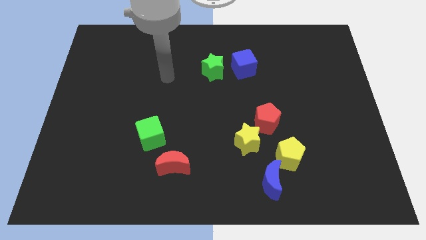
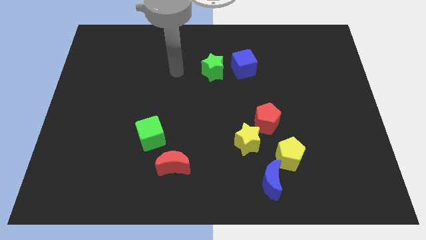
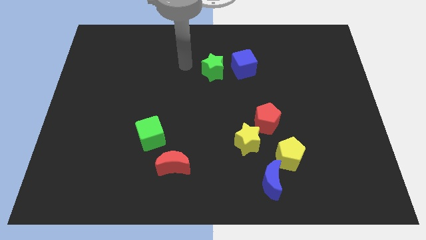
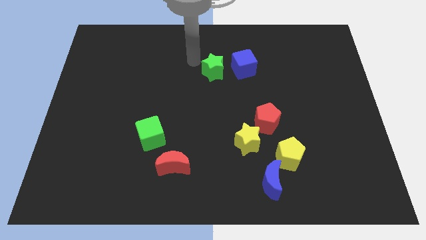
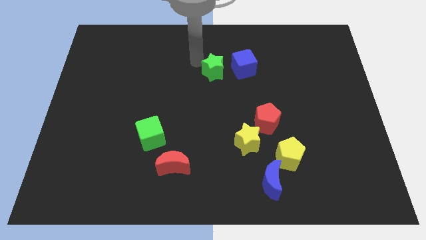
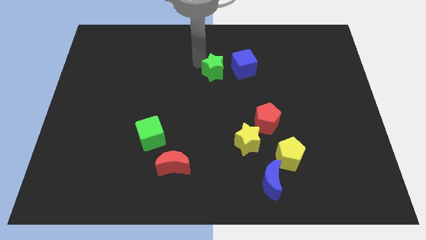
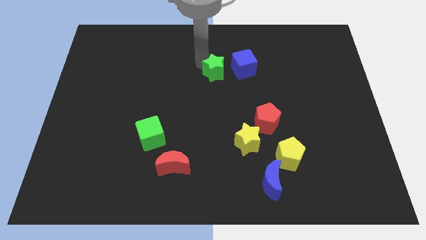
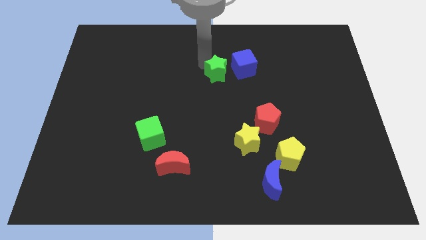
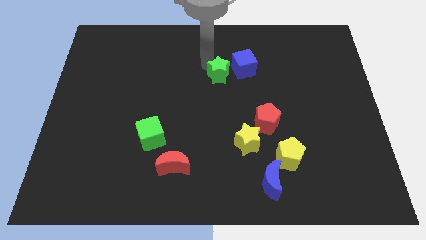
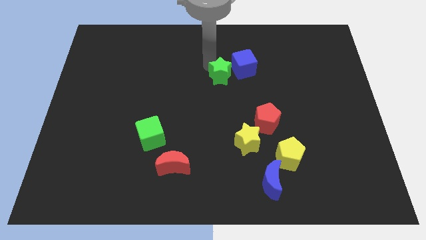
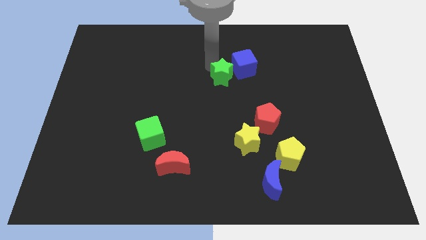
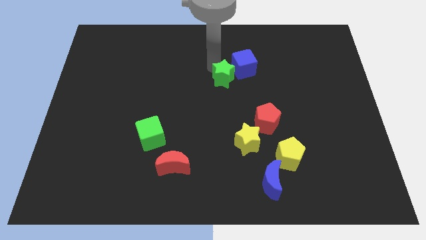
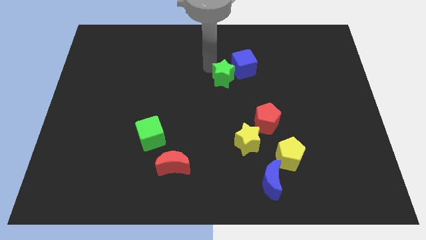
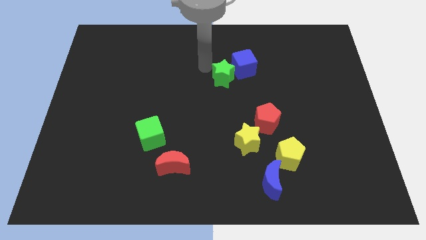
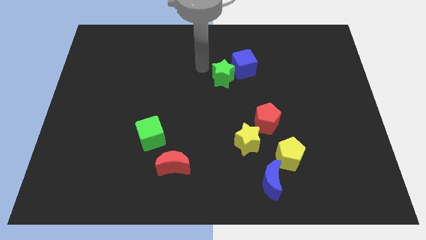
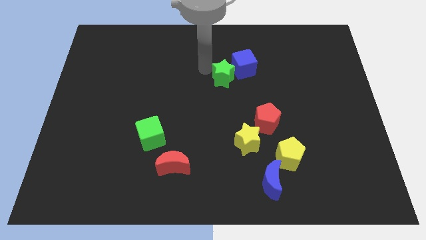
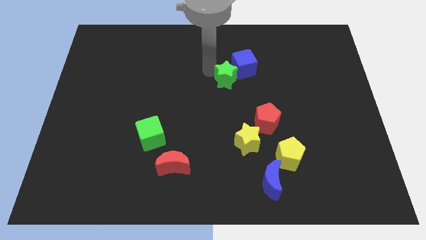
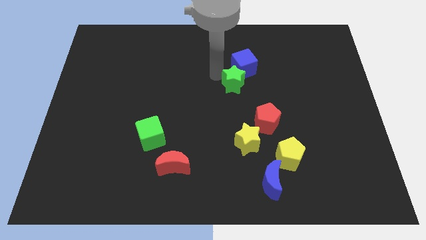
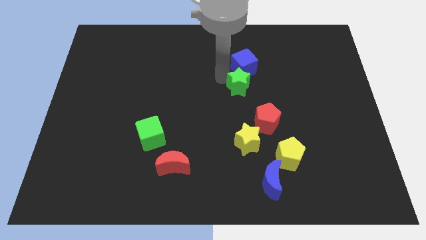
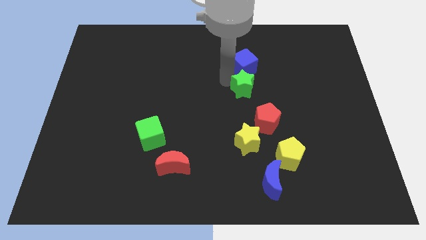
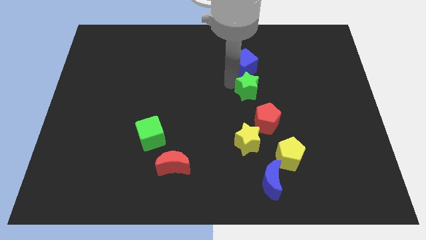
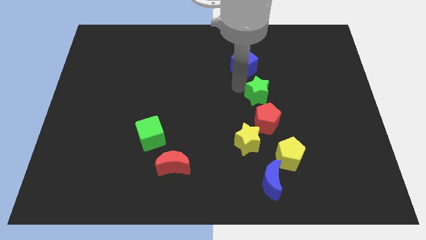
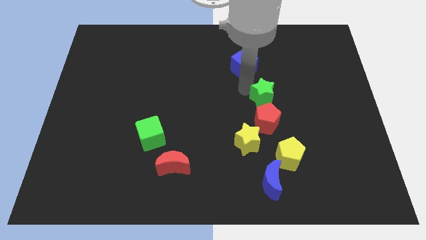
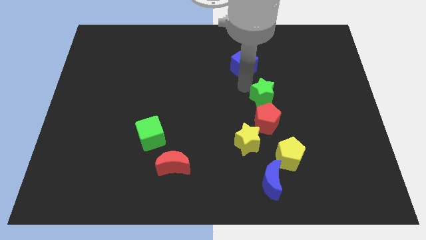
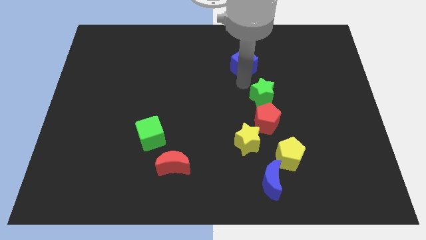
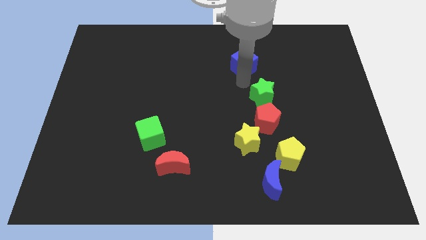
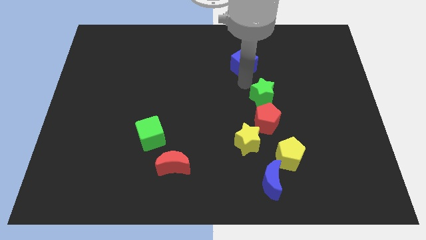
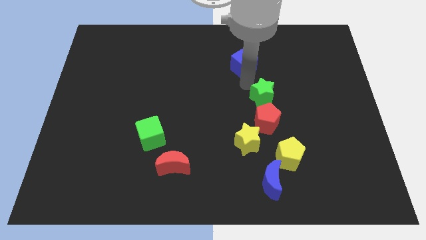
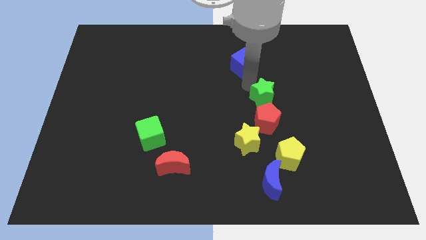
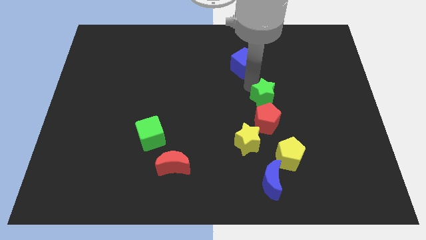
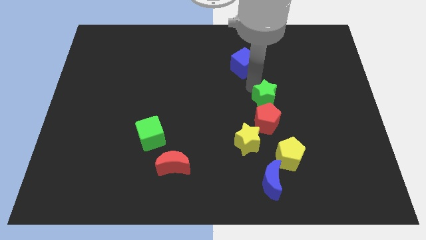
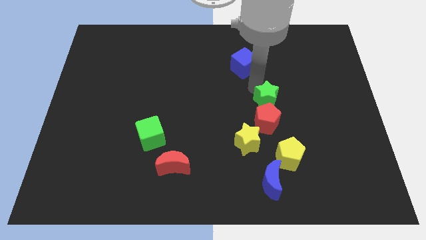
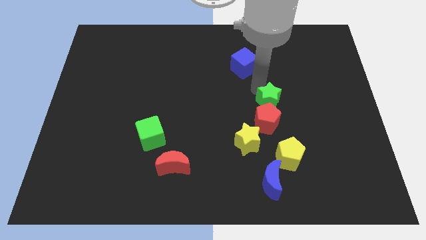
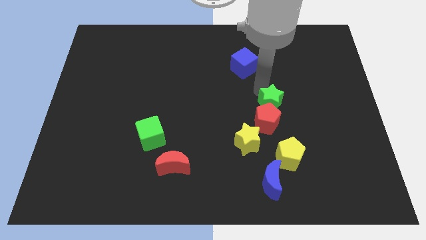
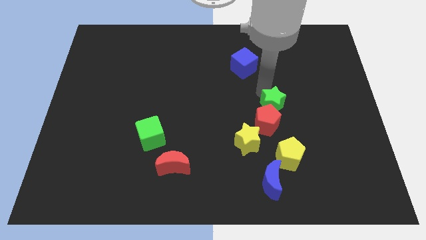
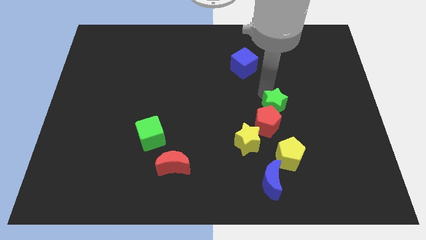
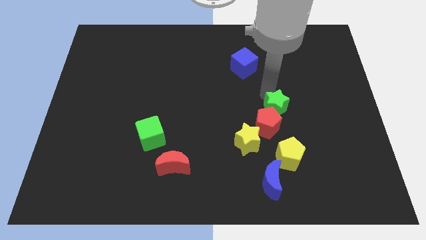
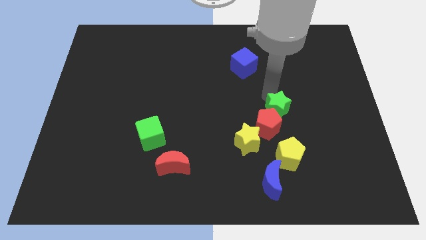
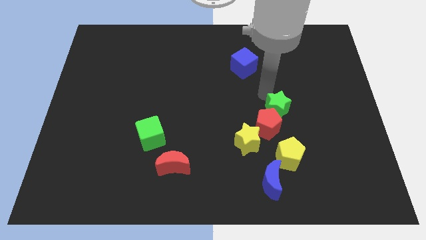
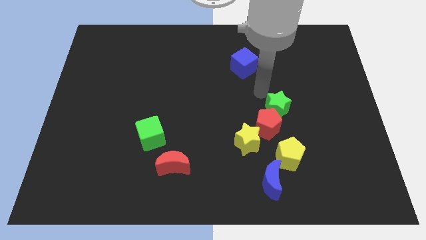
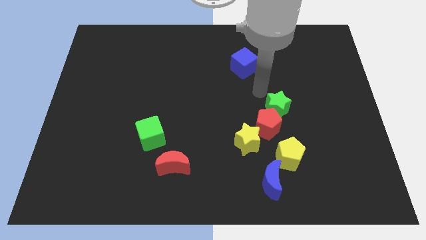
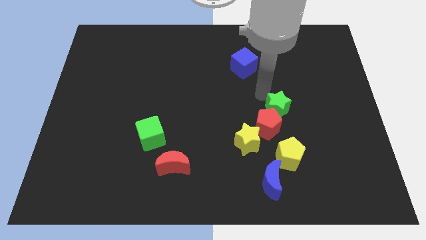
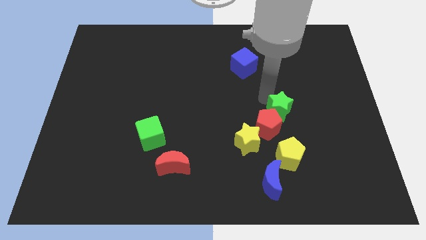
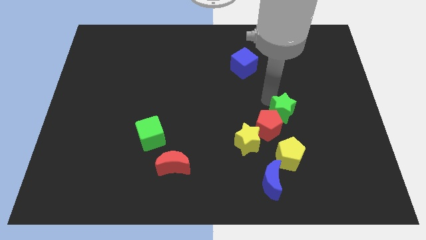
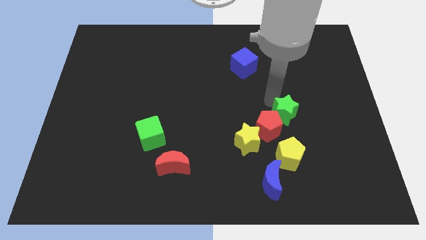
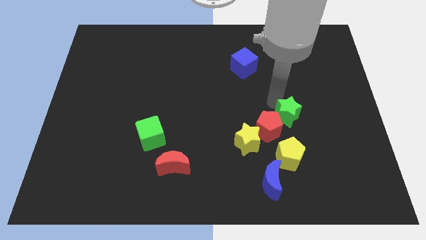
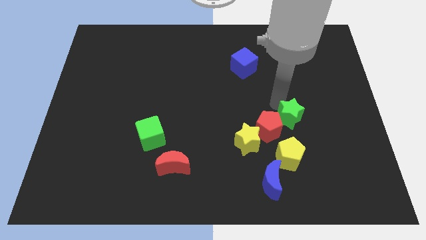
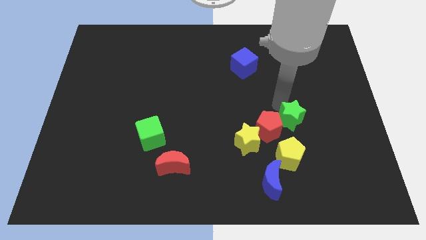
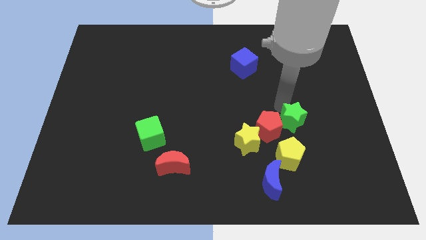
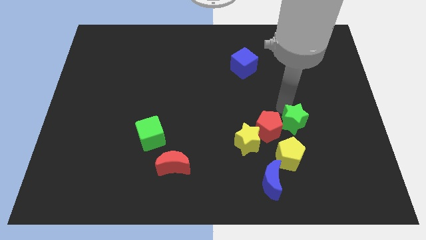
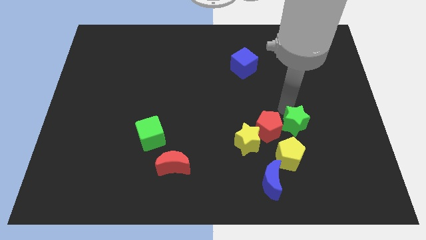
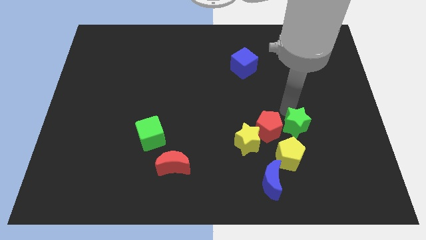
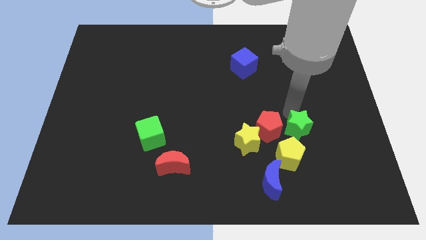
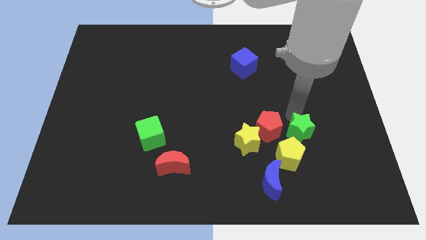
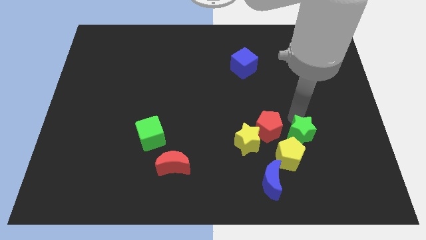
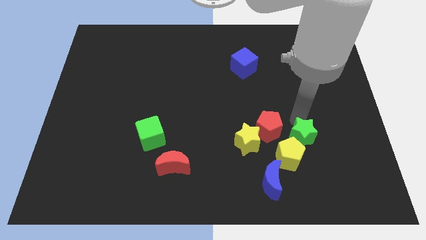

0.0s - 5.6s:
put the green star to the yellow pentagon

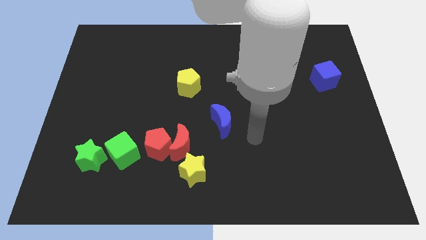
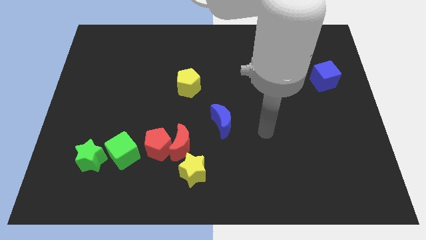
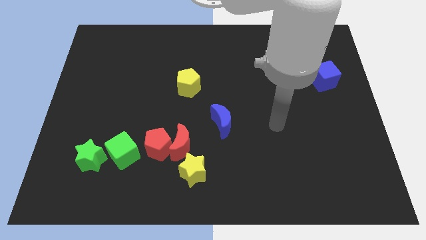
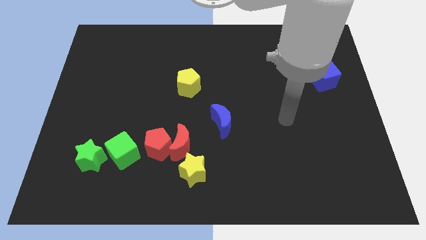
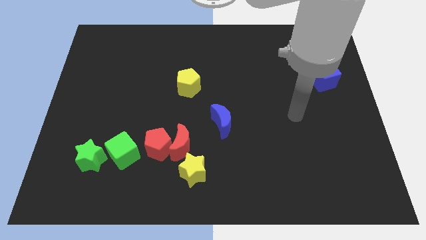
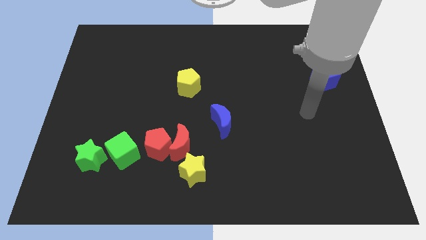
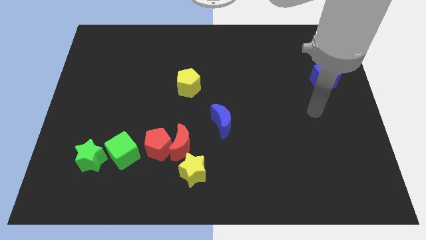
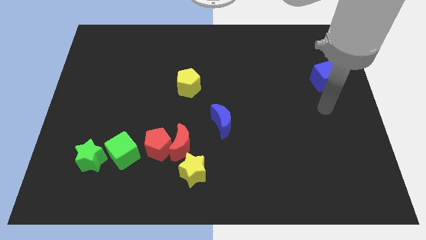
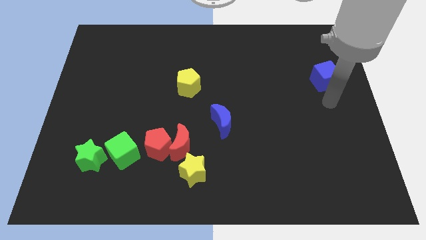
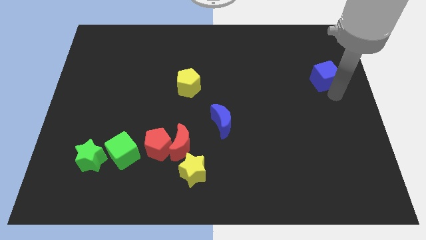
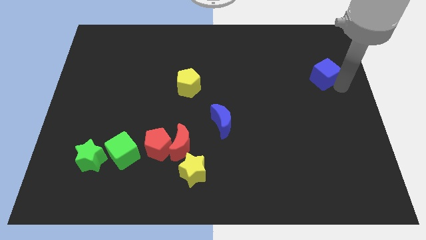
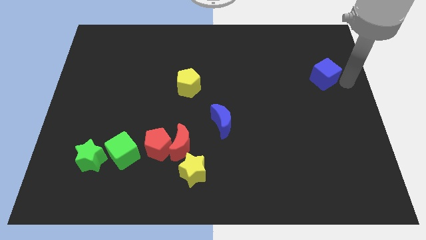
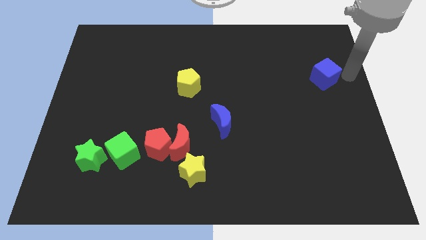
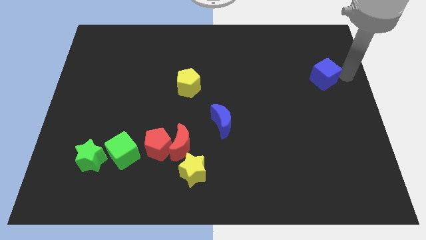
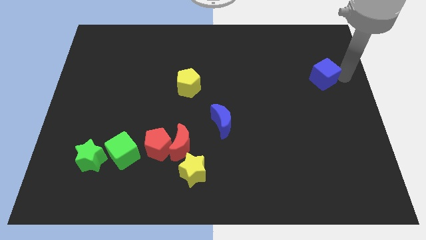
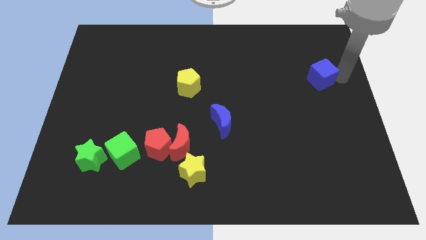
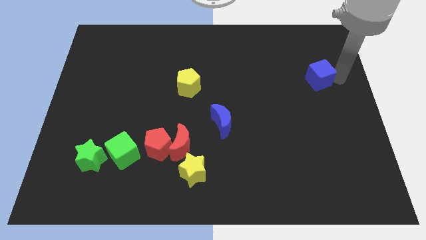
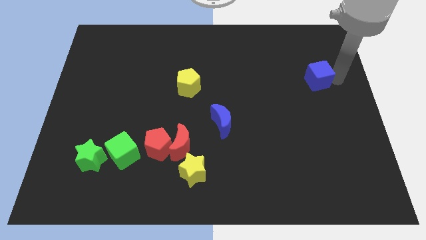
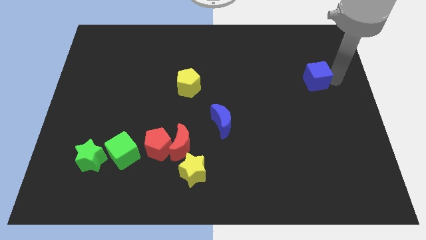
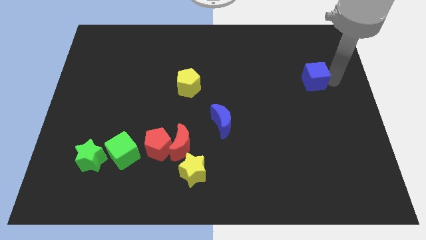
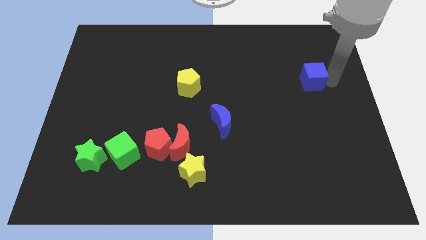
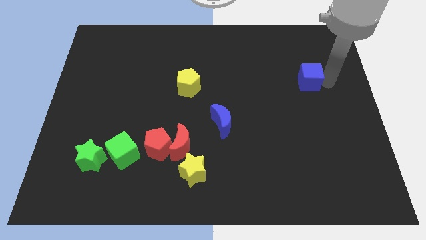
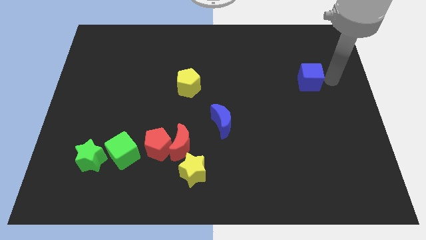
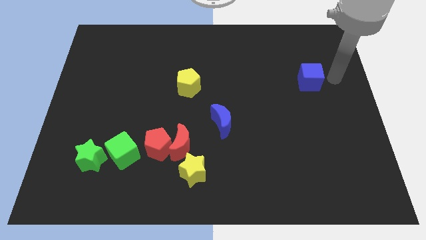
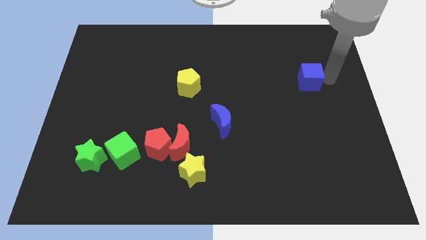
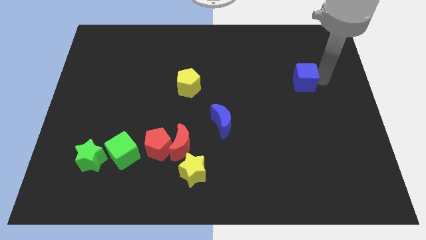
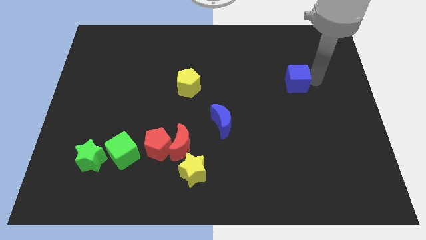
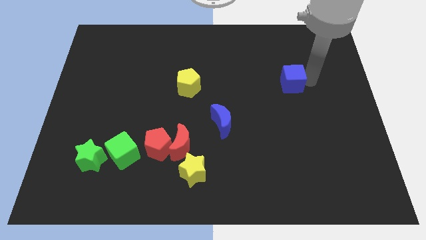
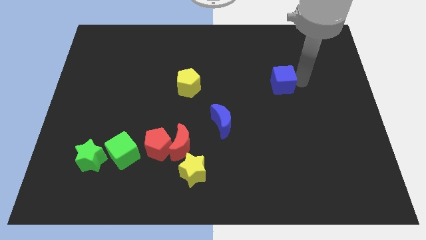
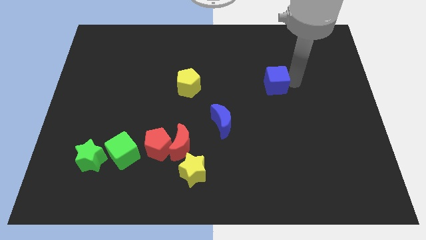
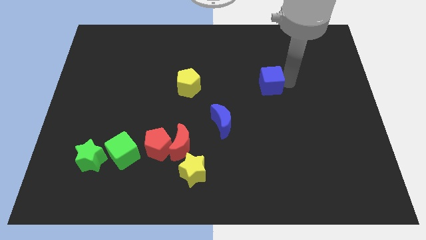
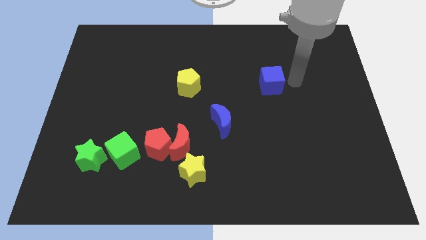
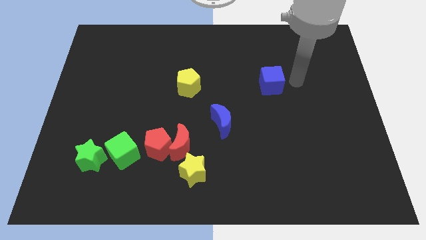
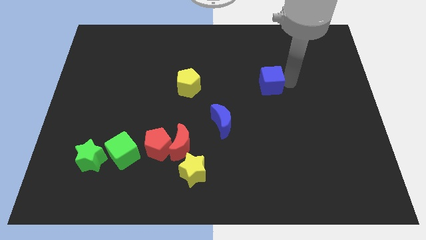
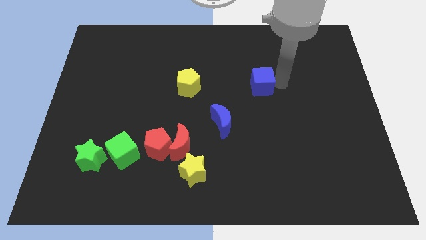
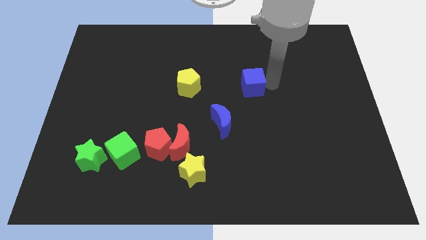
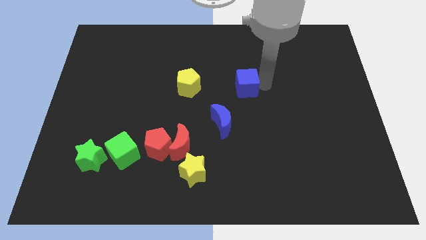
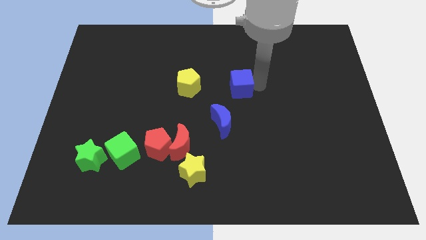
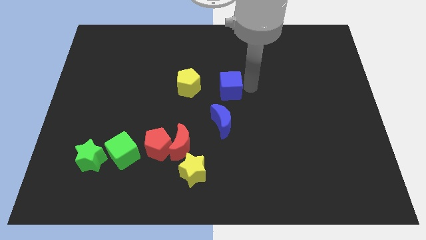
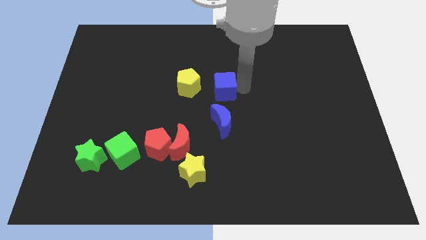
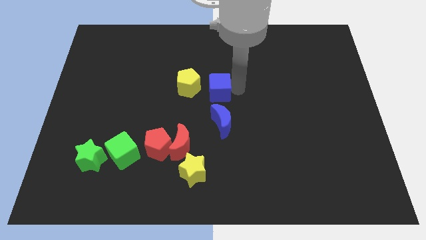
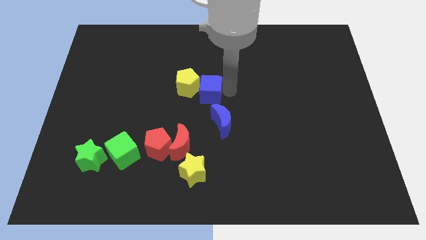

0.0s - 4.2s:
push the blue cube close to the yellow pentagon
